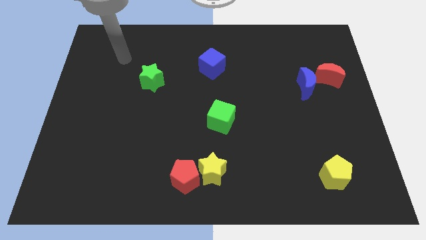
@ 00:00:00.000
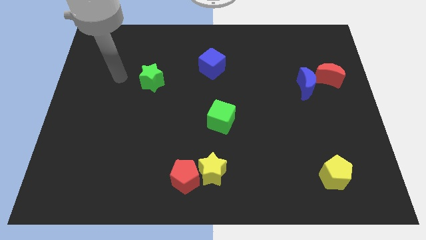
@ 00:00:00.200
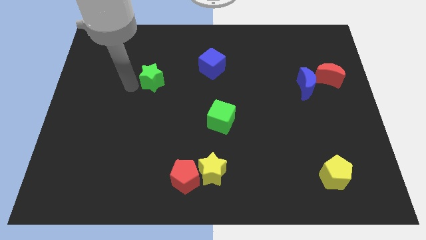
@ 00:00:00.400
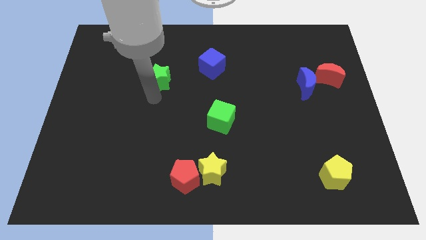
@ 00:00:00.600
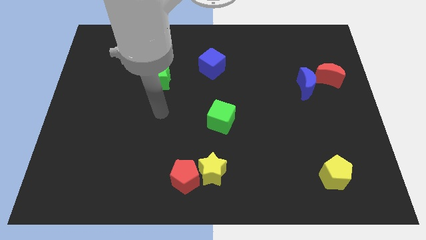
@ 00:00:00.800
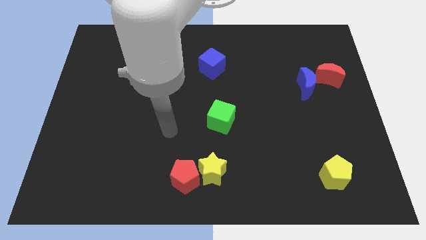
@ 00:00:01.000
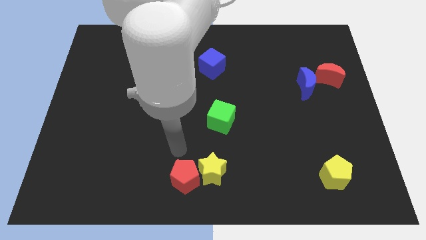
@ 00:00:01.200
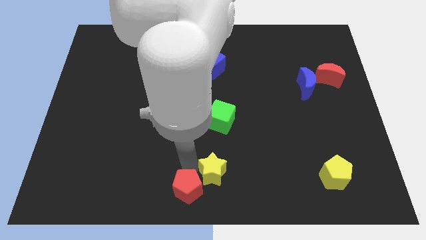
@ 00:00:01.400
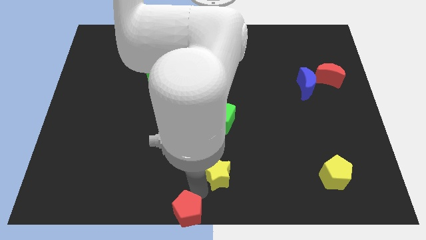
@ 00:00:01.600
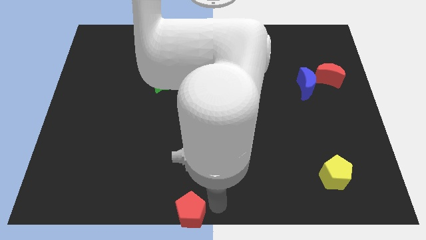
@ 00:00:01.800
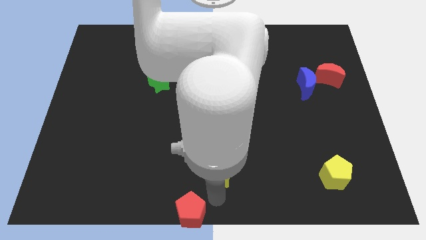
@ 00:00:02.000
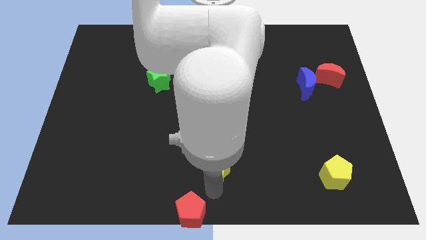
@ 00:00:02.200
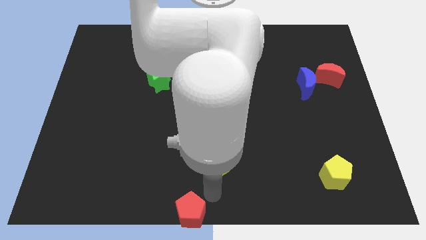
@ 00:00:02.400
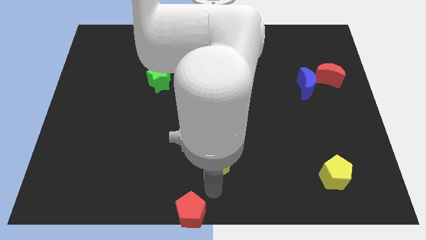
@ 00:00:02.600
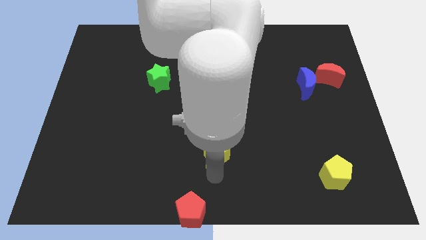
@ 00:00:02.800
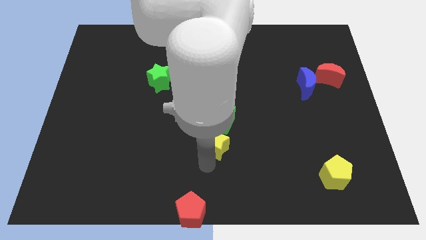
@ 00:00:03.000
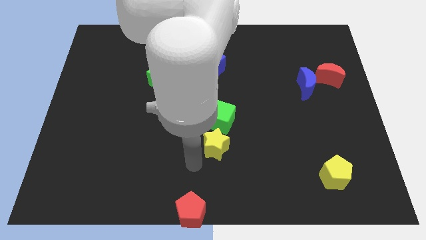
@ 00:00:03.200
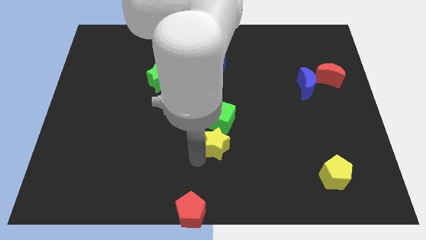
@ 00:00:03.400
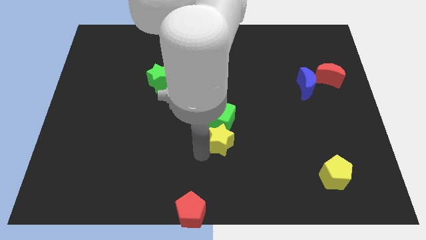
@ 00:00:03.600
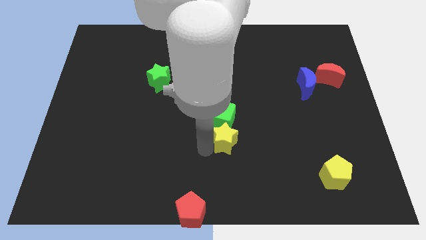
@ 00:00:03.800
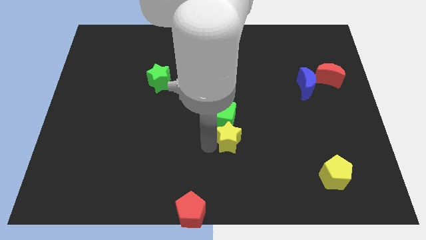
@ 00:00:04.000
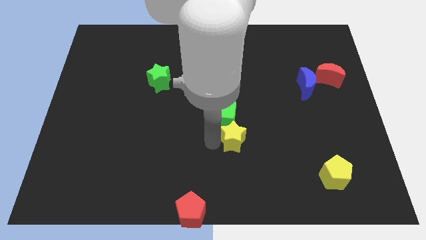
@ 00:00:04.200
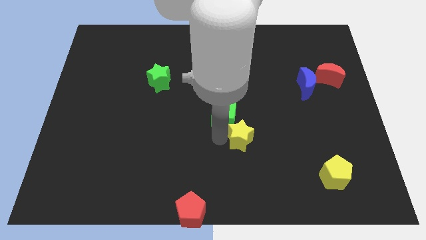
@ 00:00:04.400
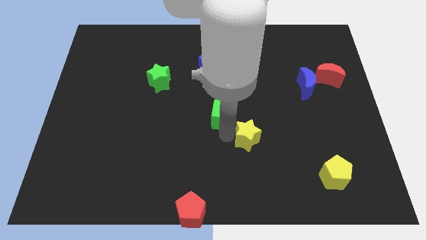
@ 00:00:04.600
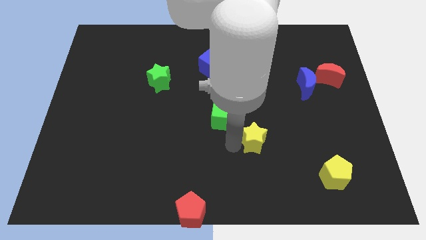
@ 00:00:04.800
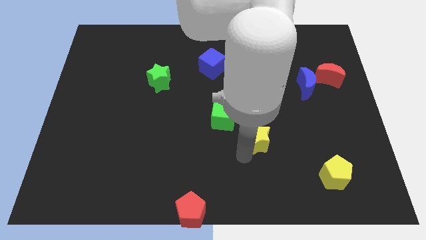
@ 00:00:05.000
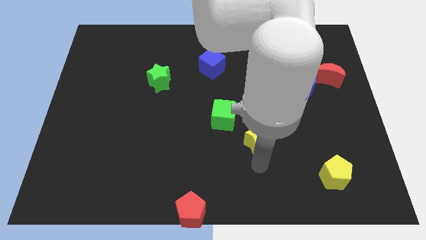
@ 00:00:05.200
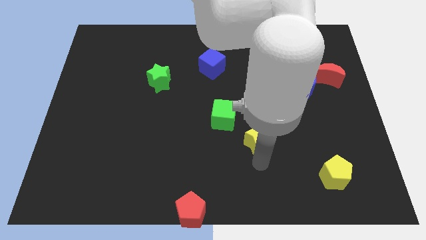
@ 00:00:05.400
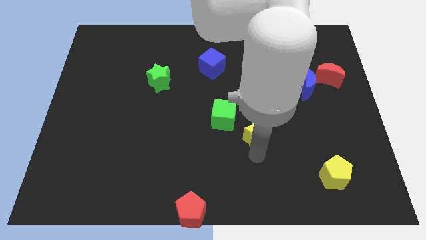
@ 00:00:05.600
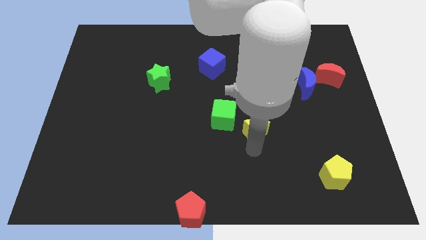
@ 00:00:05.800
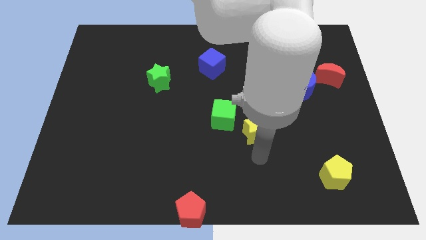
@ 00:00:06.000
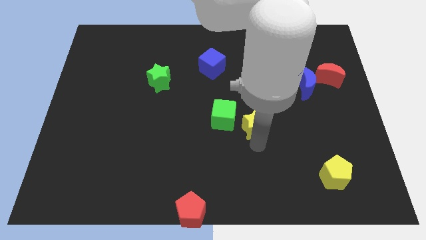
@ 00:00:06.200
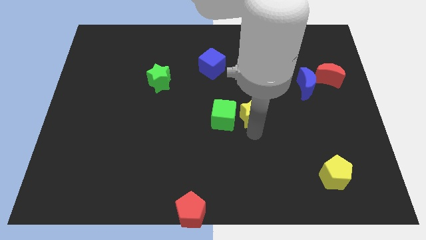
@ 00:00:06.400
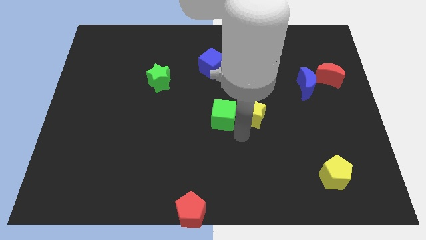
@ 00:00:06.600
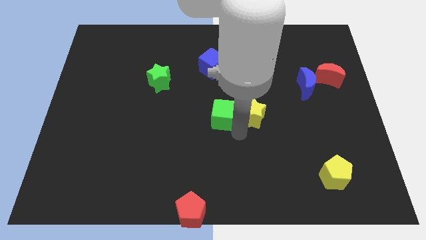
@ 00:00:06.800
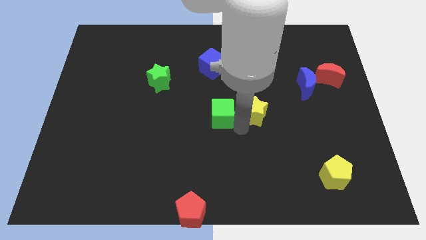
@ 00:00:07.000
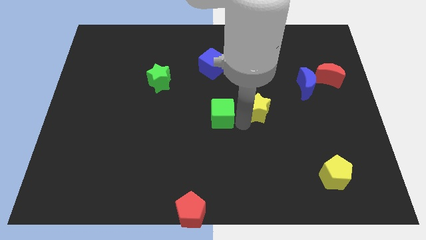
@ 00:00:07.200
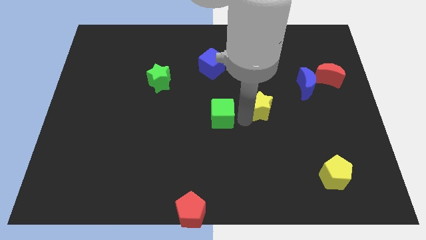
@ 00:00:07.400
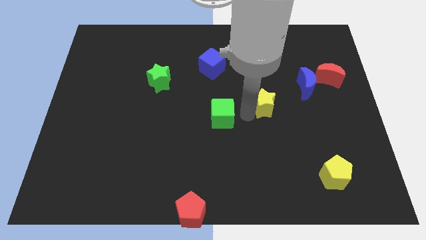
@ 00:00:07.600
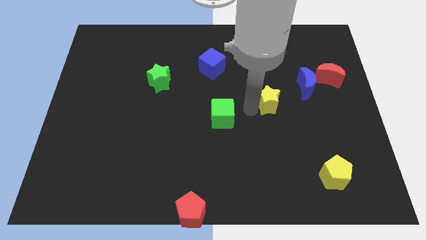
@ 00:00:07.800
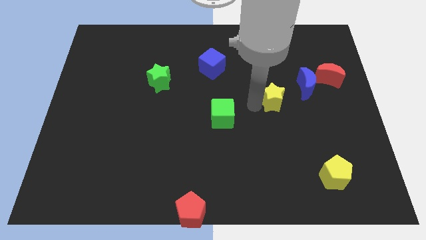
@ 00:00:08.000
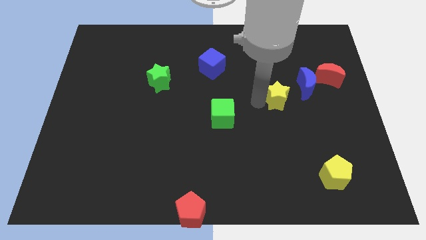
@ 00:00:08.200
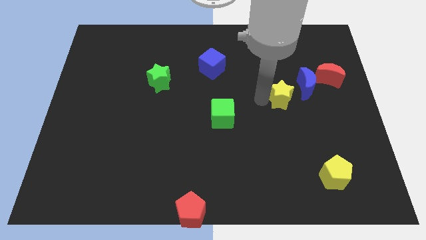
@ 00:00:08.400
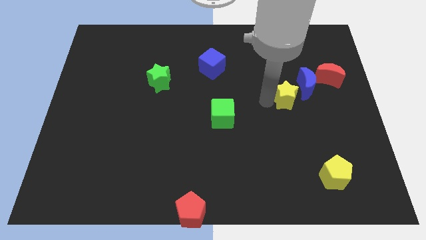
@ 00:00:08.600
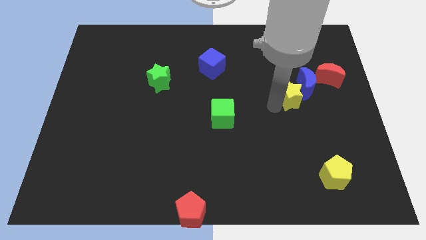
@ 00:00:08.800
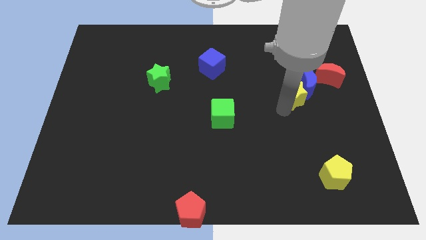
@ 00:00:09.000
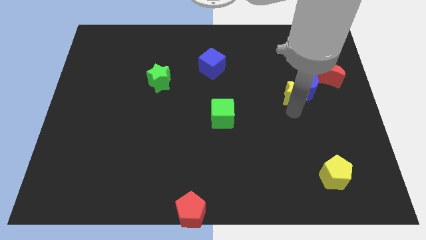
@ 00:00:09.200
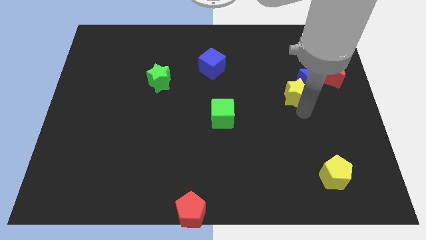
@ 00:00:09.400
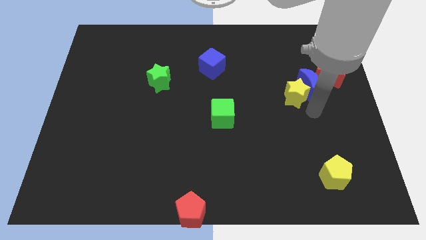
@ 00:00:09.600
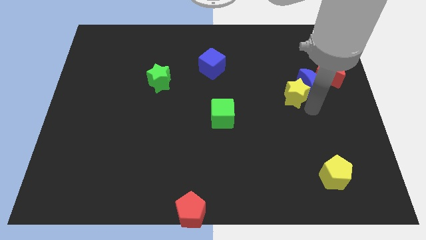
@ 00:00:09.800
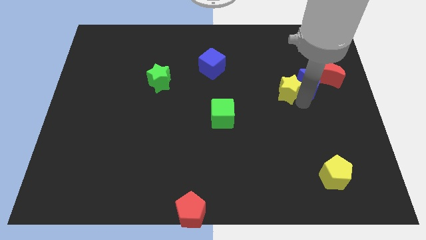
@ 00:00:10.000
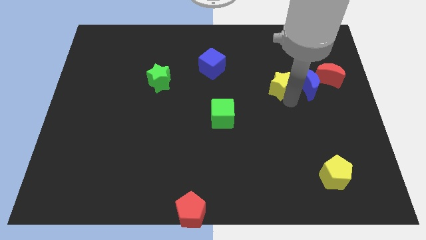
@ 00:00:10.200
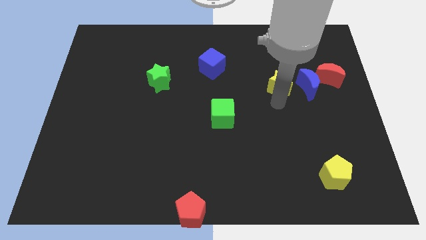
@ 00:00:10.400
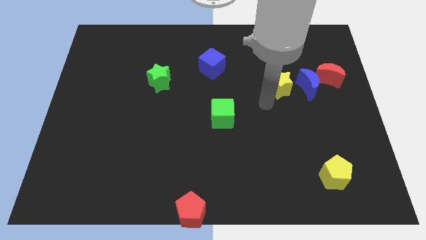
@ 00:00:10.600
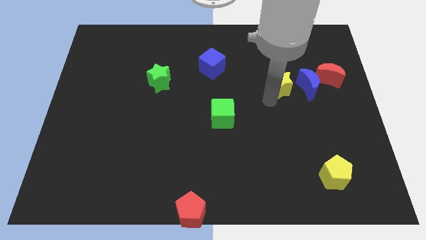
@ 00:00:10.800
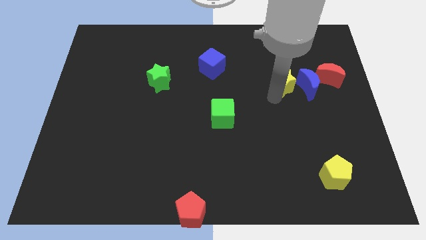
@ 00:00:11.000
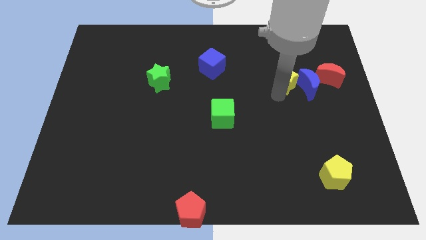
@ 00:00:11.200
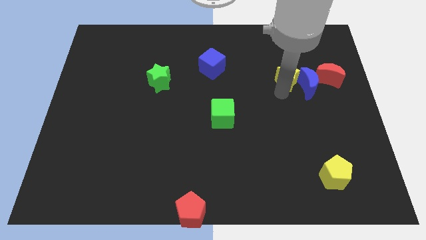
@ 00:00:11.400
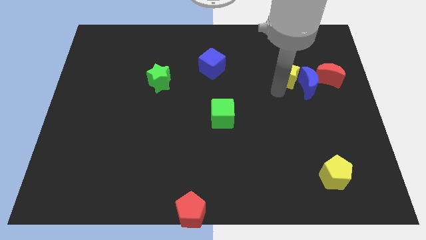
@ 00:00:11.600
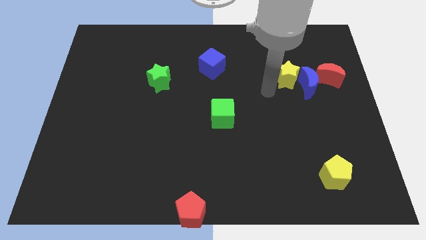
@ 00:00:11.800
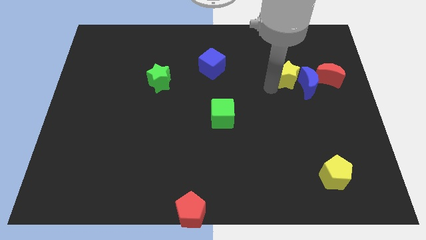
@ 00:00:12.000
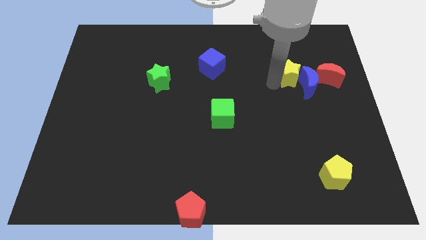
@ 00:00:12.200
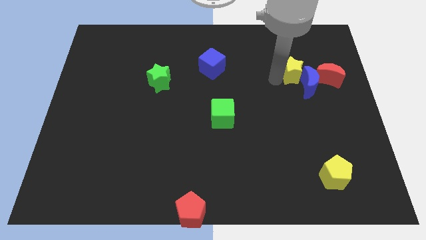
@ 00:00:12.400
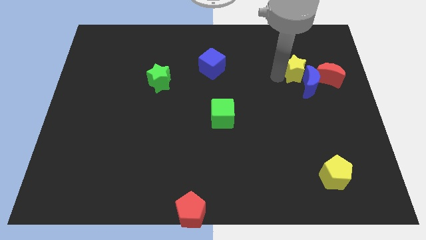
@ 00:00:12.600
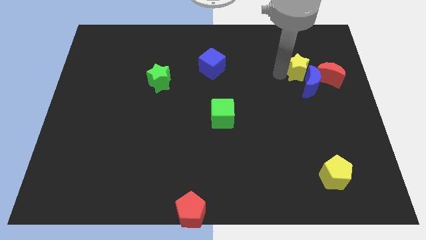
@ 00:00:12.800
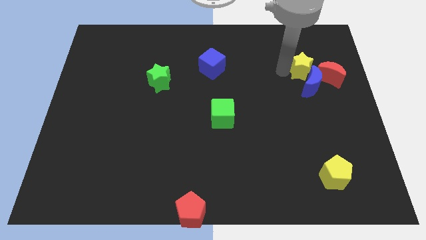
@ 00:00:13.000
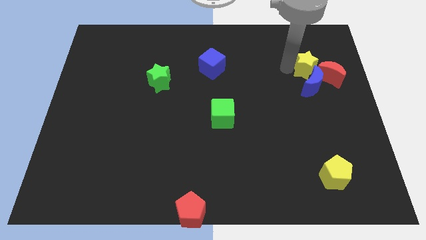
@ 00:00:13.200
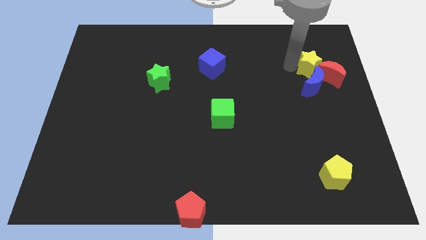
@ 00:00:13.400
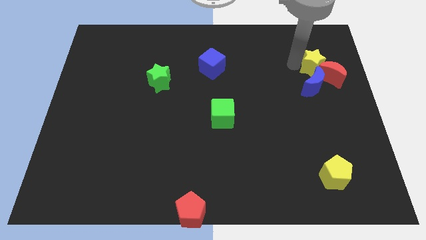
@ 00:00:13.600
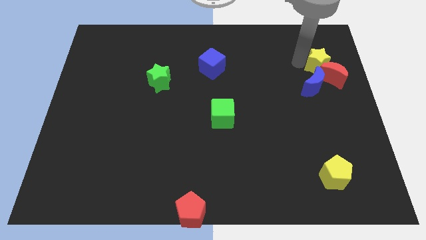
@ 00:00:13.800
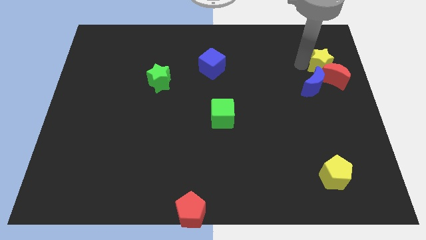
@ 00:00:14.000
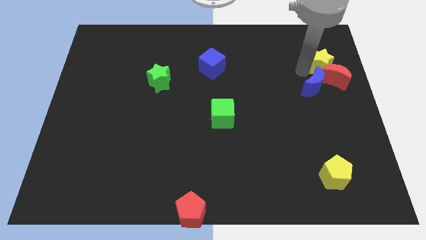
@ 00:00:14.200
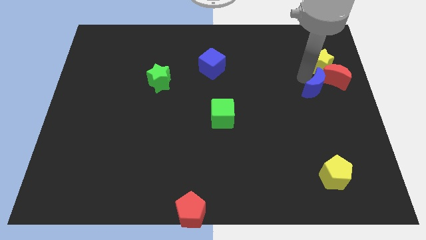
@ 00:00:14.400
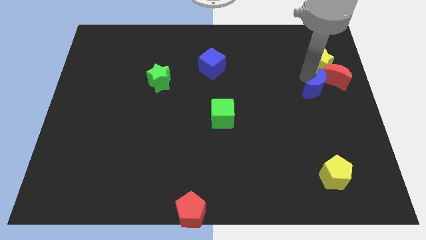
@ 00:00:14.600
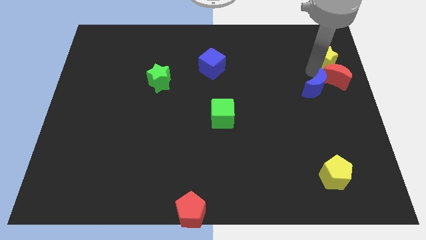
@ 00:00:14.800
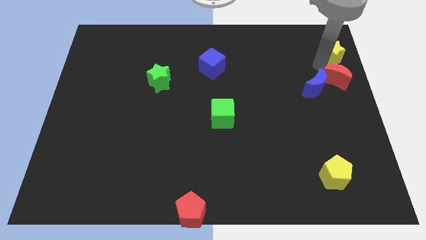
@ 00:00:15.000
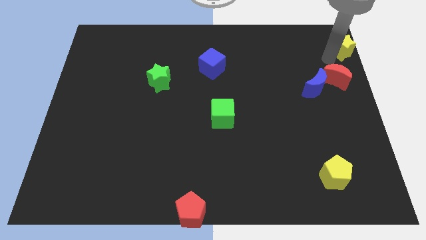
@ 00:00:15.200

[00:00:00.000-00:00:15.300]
slide the yellow star to the top right
